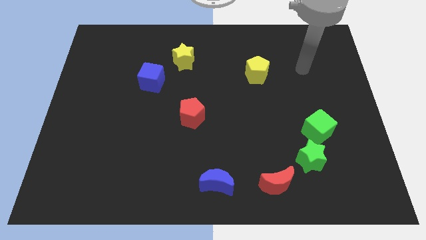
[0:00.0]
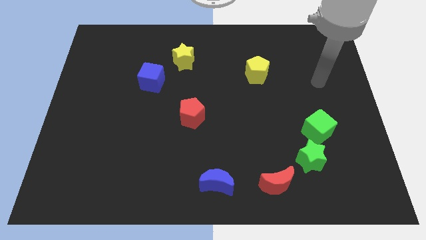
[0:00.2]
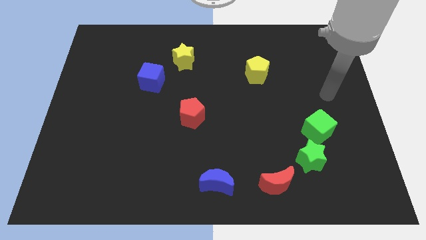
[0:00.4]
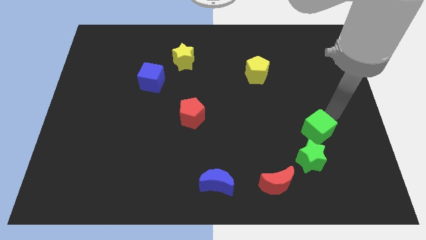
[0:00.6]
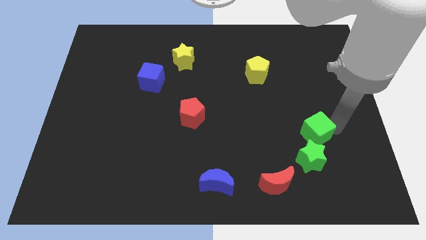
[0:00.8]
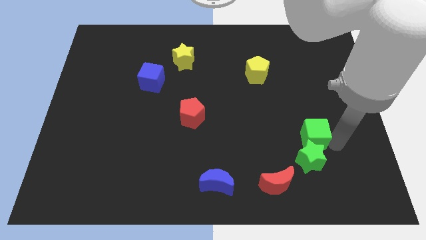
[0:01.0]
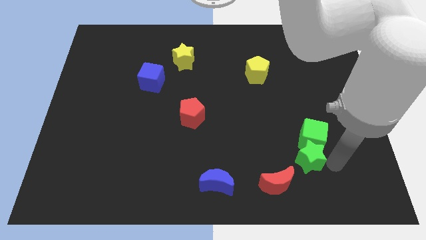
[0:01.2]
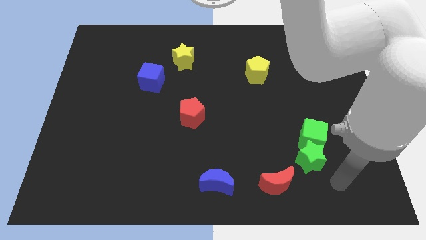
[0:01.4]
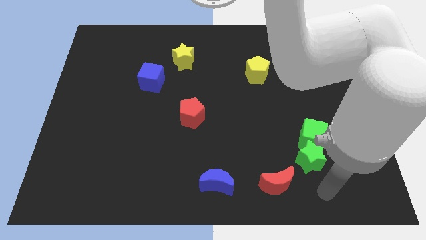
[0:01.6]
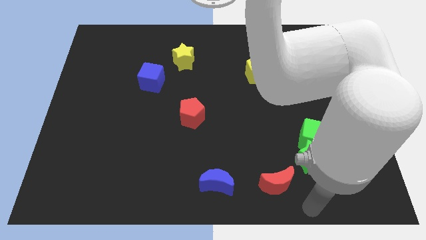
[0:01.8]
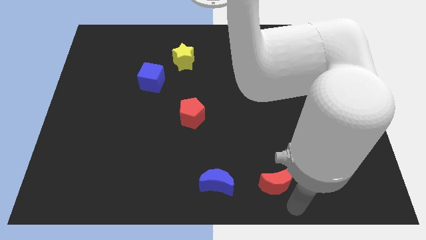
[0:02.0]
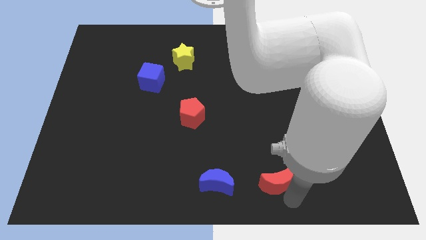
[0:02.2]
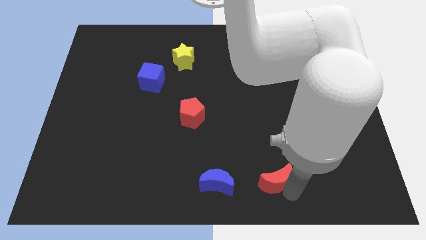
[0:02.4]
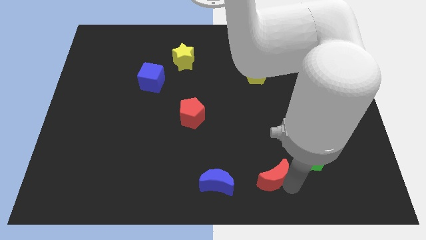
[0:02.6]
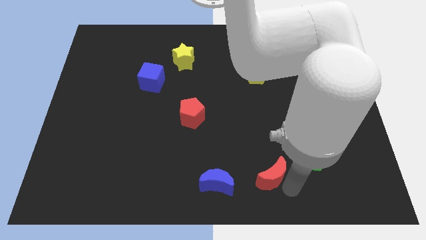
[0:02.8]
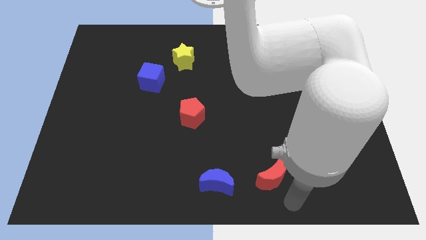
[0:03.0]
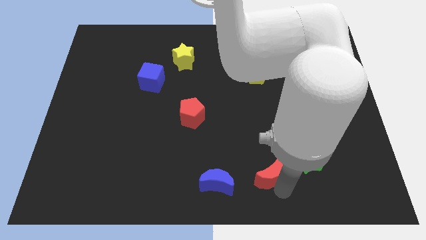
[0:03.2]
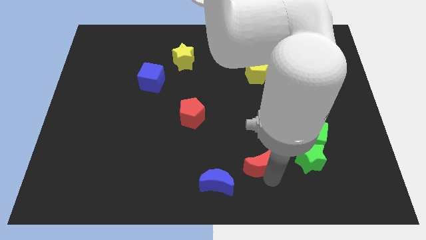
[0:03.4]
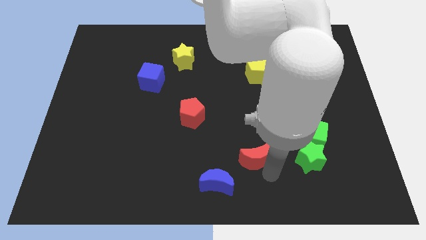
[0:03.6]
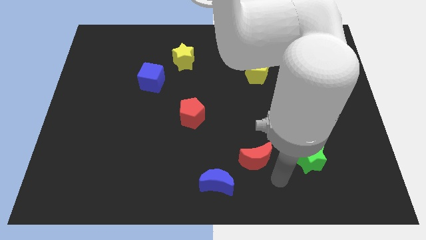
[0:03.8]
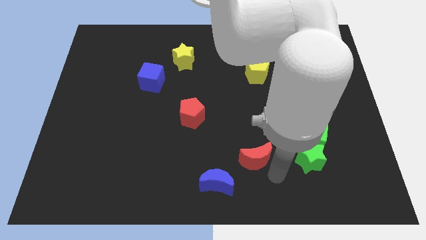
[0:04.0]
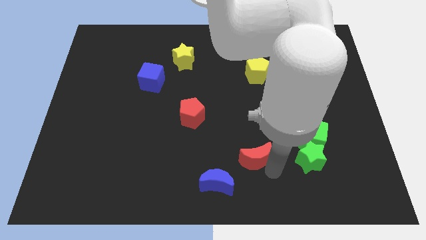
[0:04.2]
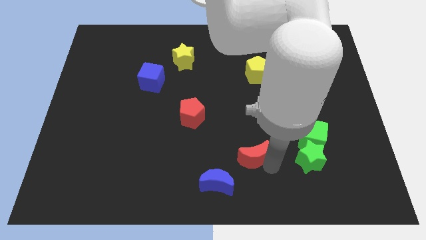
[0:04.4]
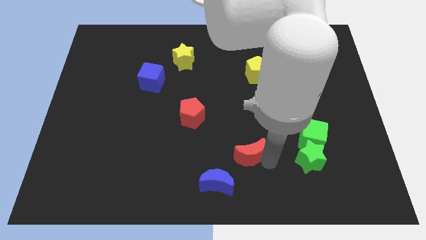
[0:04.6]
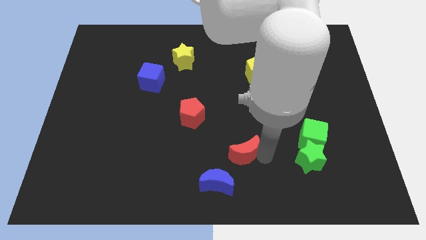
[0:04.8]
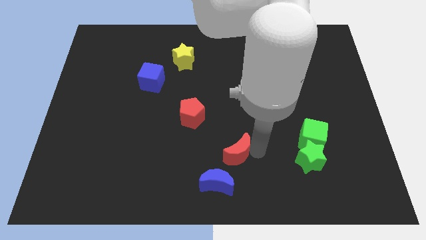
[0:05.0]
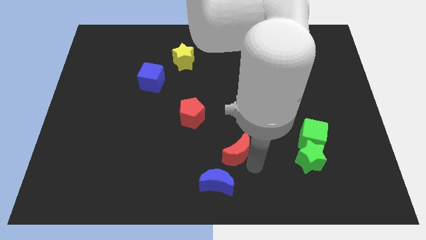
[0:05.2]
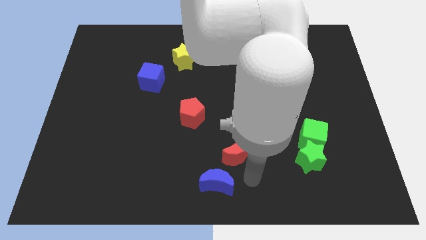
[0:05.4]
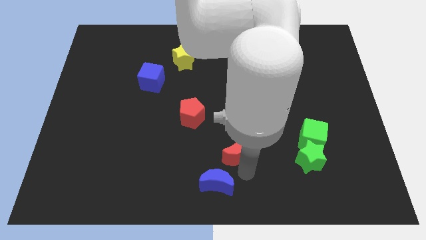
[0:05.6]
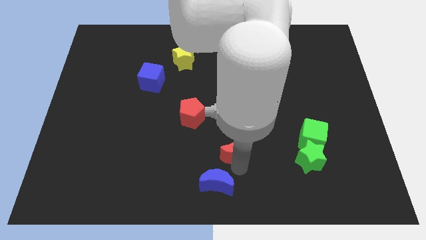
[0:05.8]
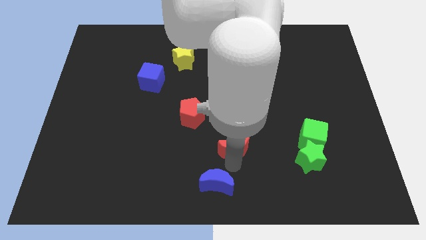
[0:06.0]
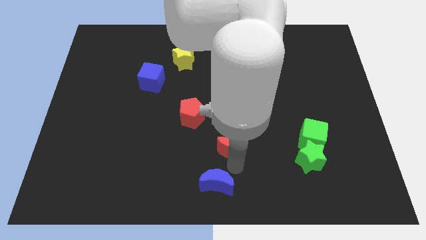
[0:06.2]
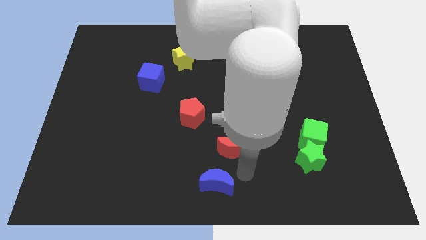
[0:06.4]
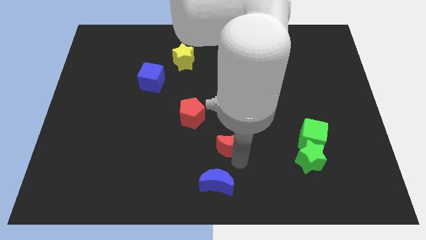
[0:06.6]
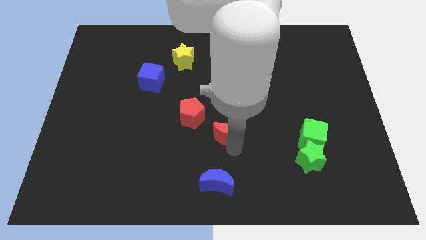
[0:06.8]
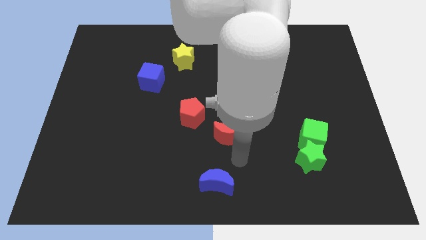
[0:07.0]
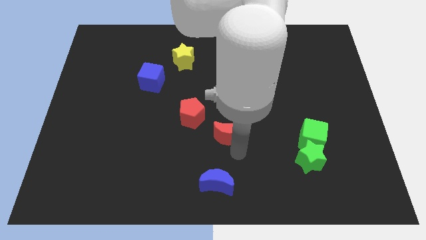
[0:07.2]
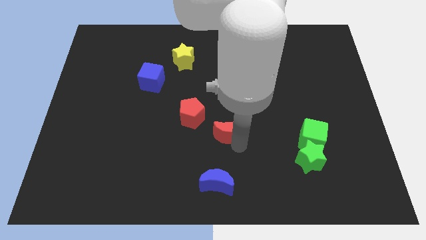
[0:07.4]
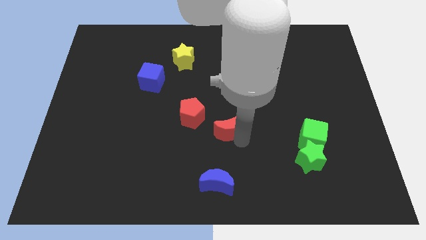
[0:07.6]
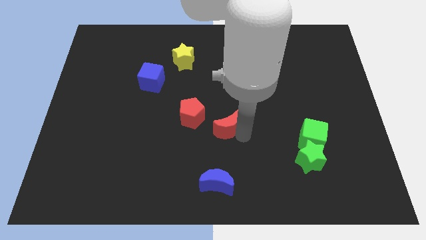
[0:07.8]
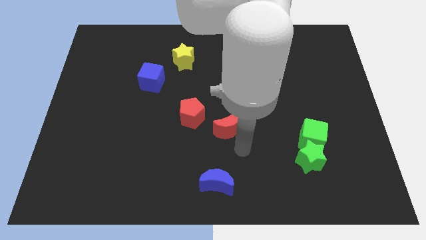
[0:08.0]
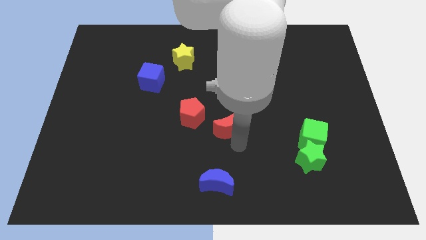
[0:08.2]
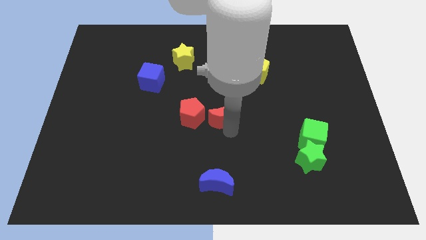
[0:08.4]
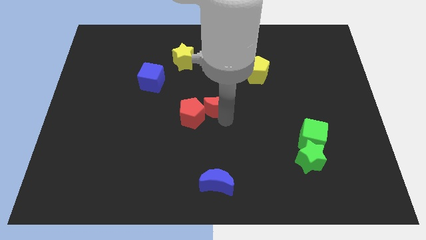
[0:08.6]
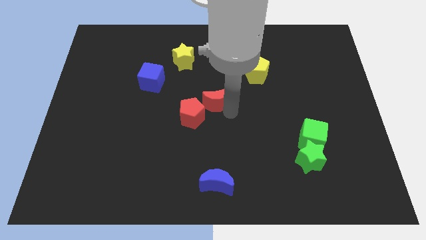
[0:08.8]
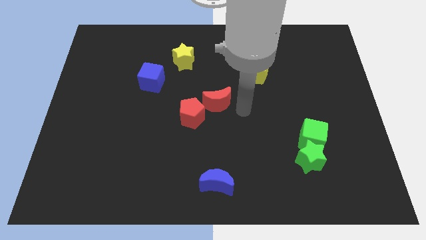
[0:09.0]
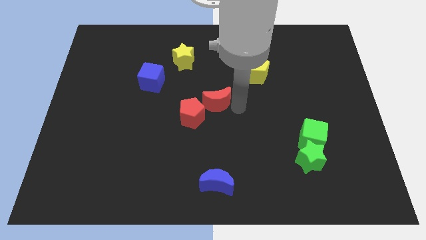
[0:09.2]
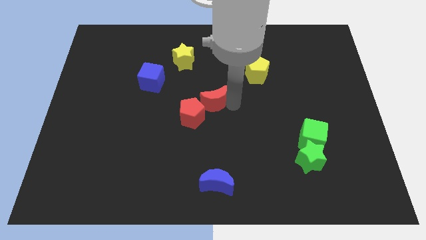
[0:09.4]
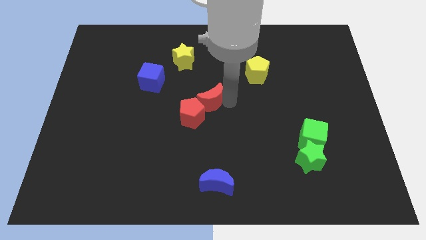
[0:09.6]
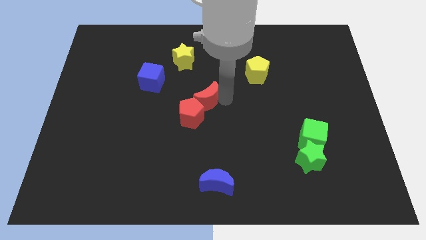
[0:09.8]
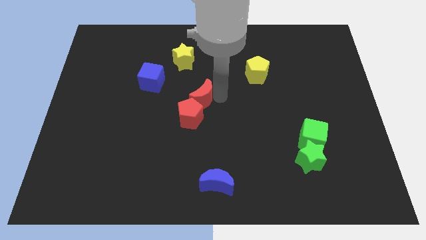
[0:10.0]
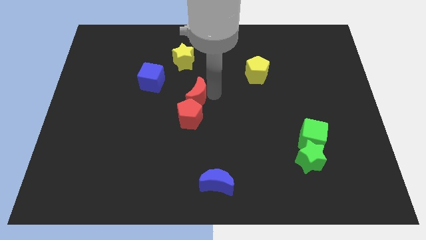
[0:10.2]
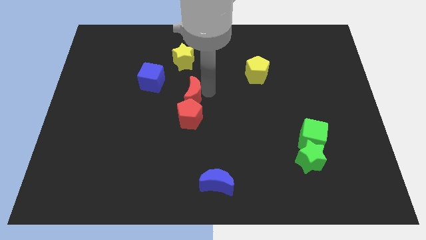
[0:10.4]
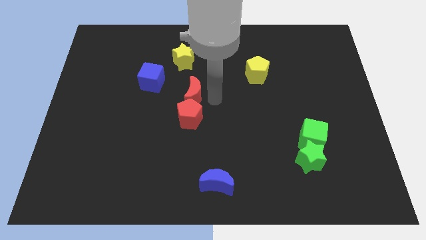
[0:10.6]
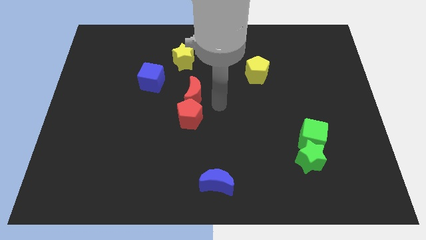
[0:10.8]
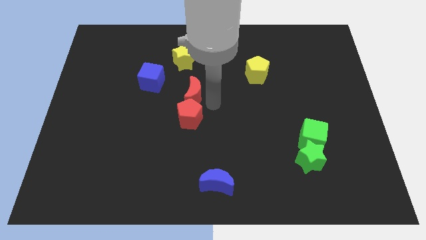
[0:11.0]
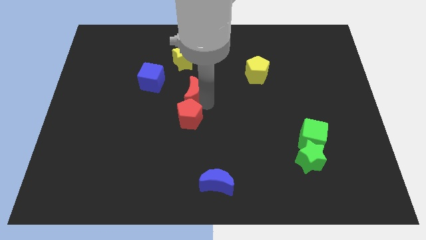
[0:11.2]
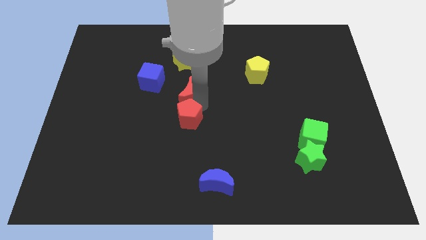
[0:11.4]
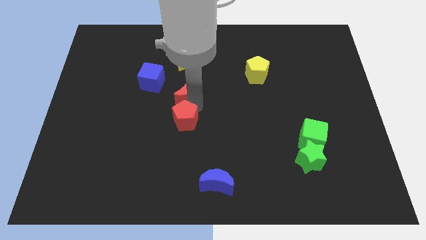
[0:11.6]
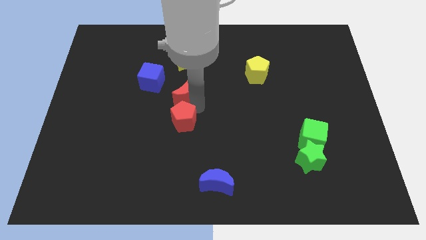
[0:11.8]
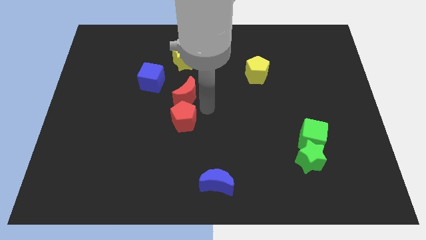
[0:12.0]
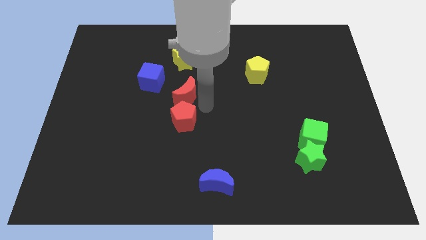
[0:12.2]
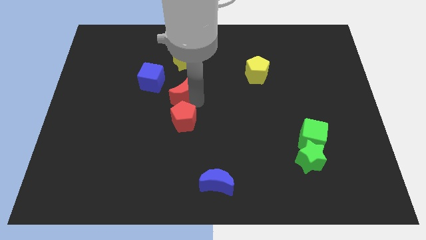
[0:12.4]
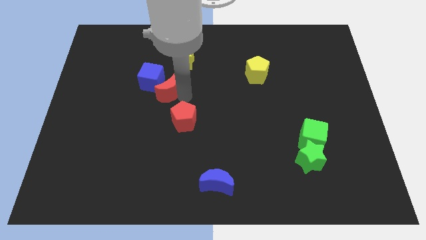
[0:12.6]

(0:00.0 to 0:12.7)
put the red moon next to the blue cube

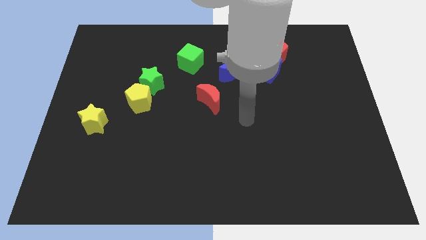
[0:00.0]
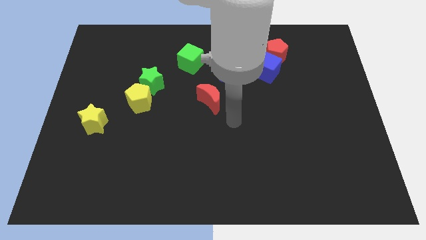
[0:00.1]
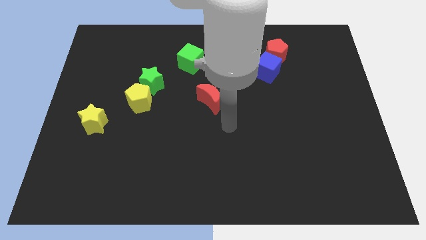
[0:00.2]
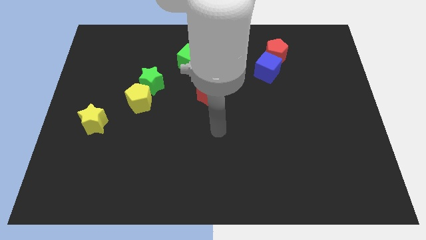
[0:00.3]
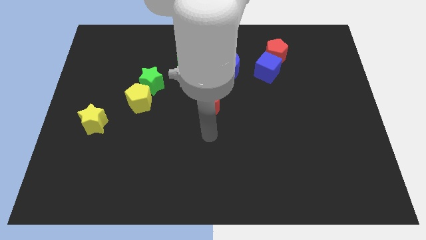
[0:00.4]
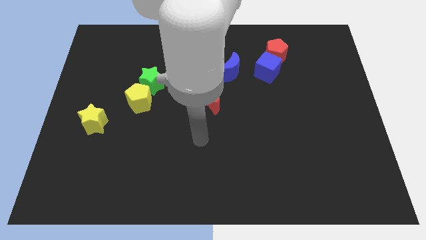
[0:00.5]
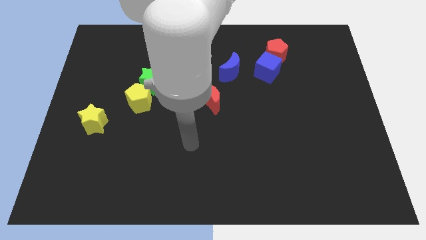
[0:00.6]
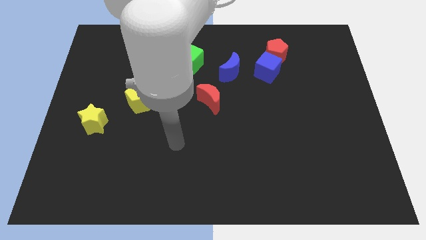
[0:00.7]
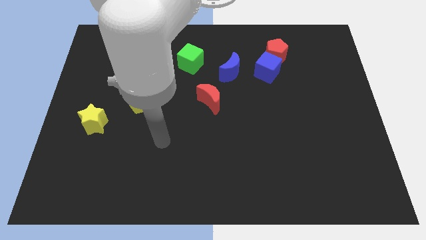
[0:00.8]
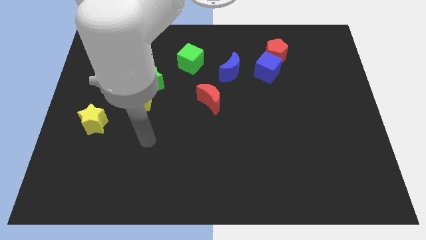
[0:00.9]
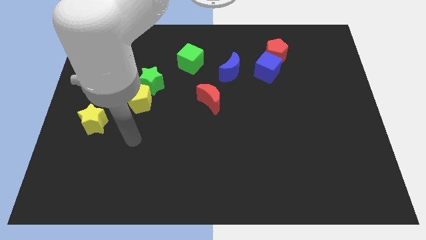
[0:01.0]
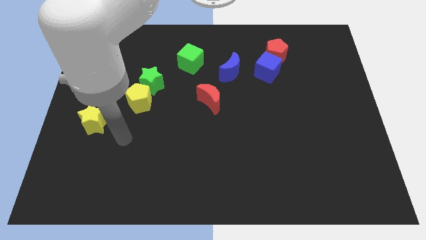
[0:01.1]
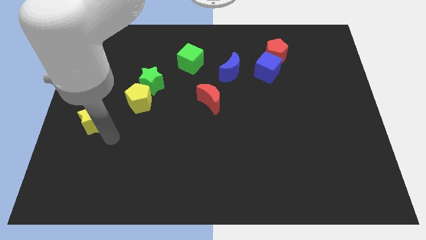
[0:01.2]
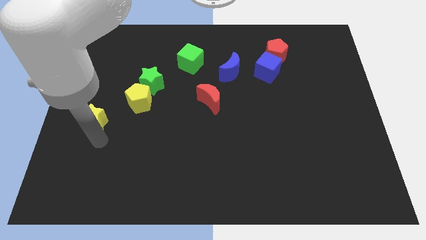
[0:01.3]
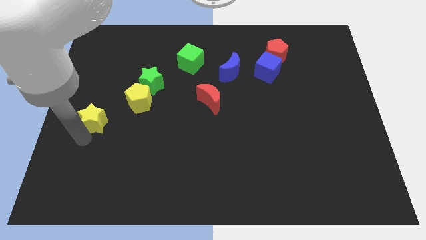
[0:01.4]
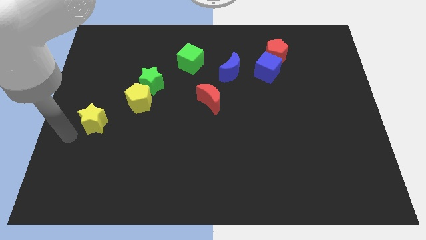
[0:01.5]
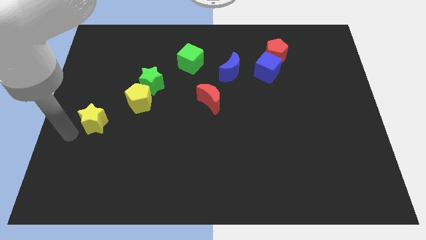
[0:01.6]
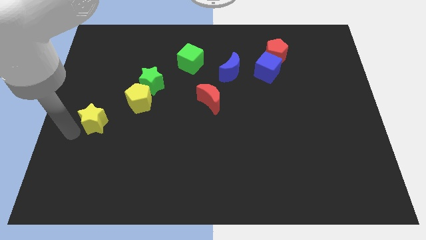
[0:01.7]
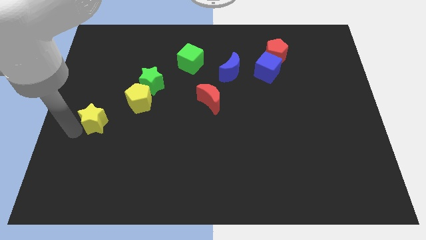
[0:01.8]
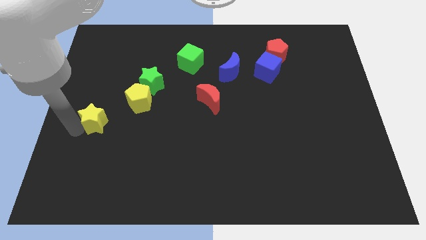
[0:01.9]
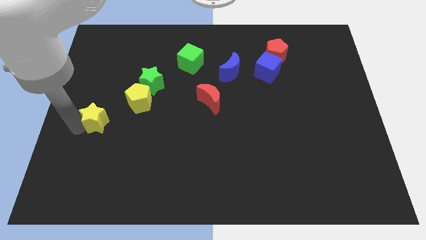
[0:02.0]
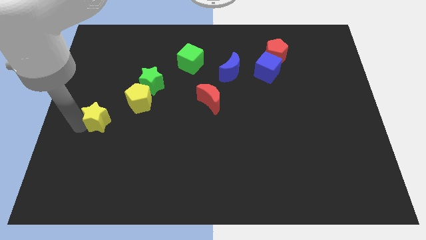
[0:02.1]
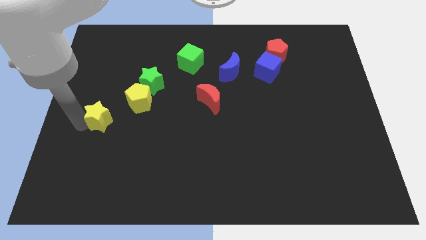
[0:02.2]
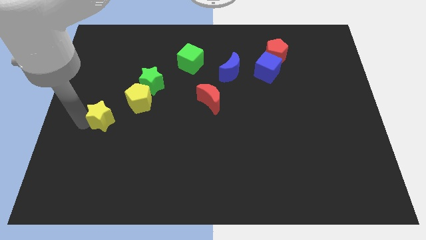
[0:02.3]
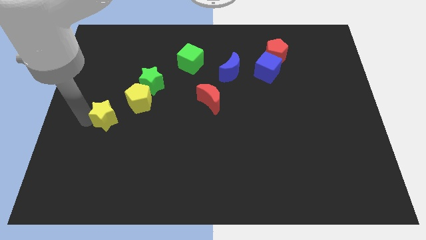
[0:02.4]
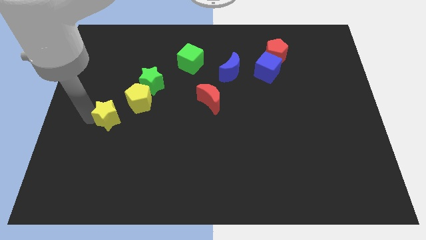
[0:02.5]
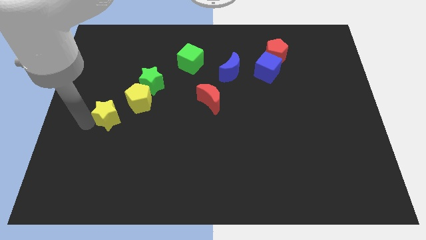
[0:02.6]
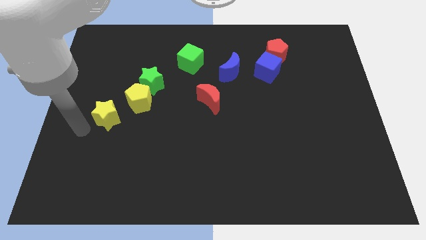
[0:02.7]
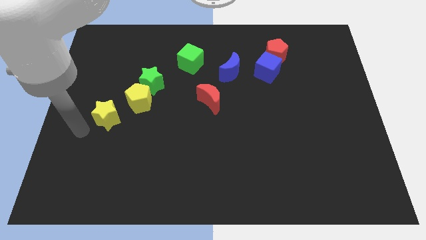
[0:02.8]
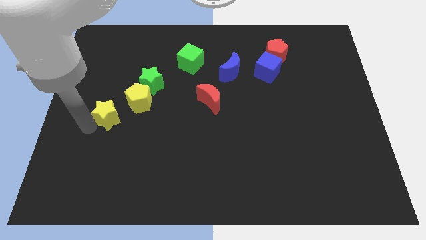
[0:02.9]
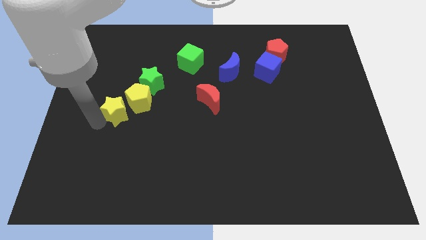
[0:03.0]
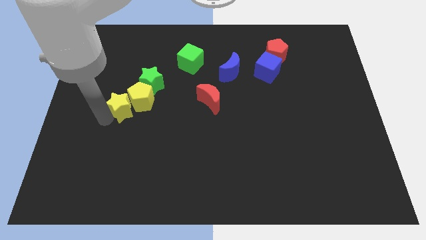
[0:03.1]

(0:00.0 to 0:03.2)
slide the yellow star towards the yellow pentagon
